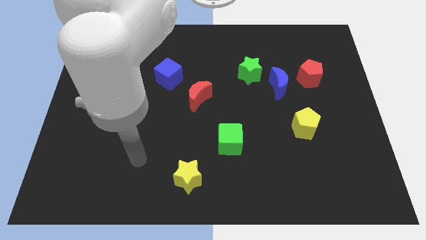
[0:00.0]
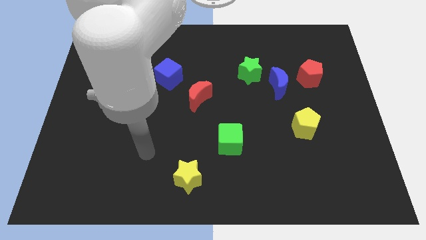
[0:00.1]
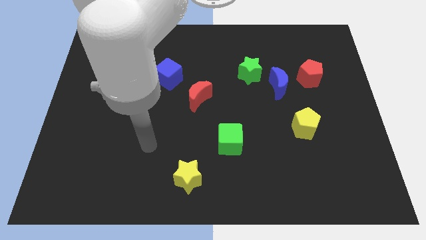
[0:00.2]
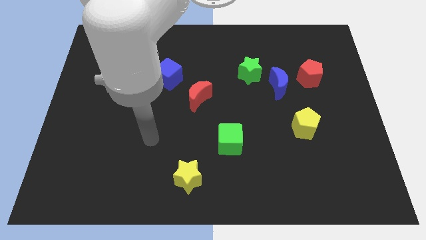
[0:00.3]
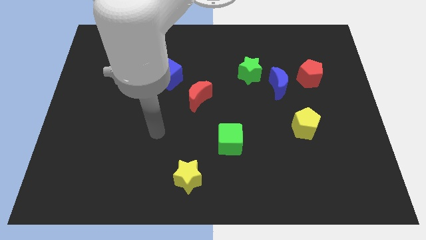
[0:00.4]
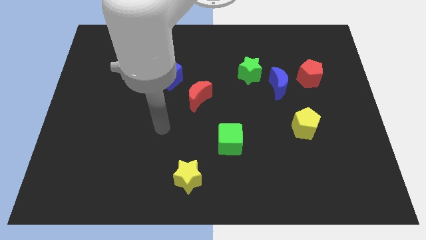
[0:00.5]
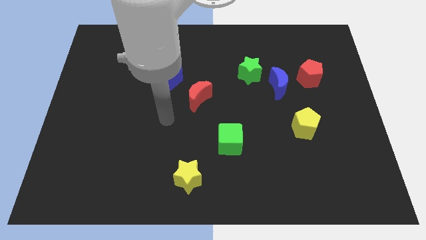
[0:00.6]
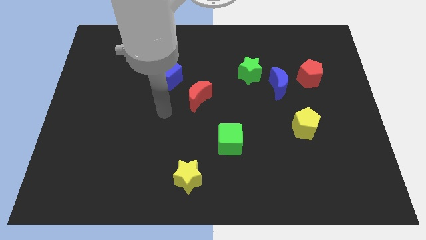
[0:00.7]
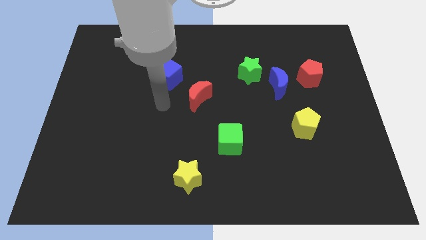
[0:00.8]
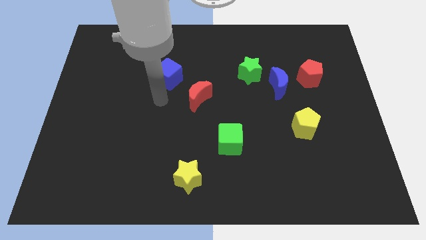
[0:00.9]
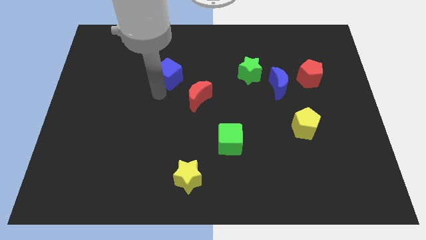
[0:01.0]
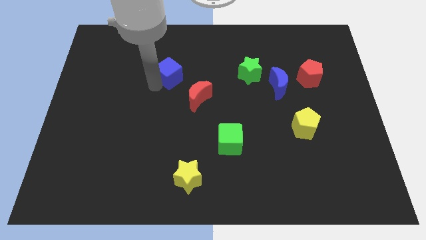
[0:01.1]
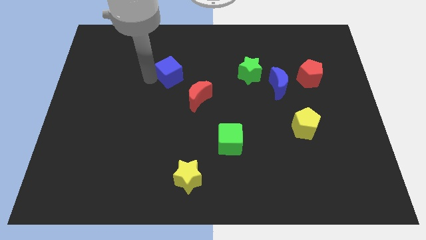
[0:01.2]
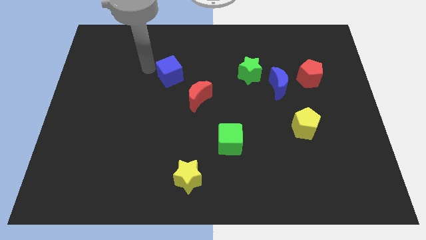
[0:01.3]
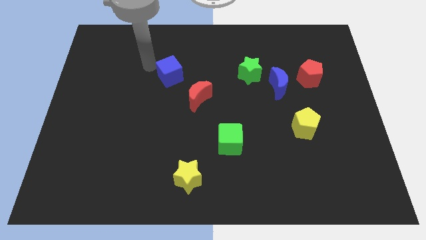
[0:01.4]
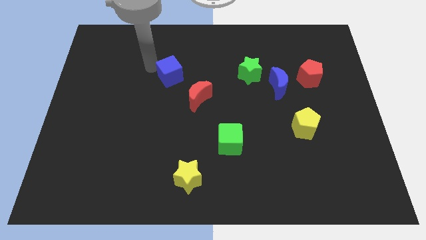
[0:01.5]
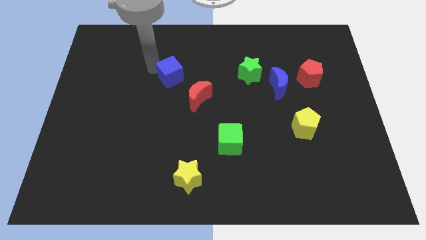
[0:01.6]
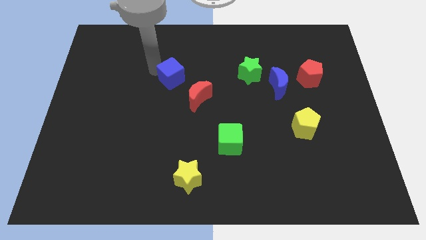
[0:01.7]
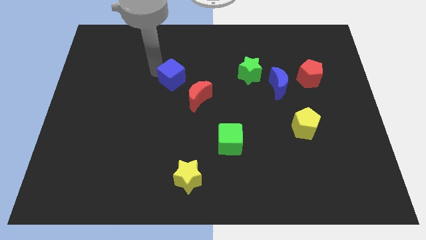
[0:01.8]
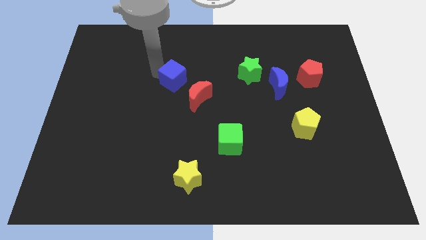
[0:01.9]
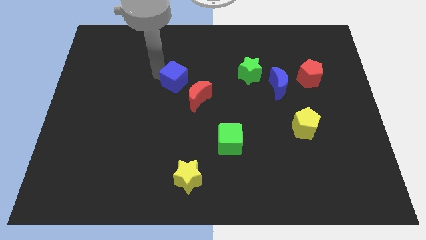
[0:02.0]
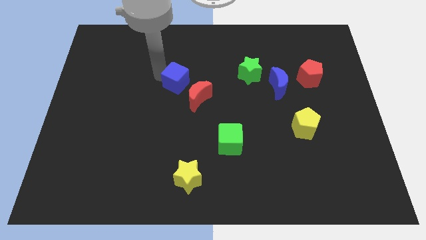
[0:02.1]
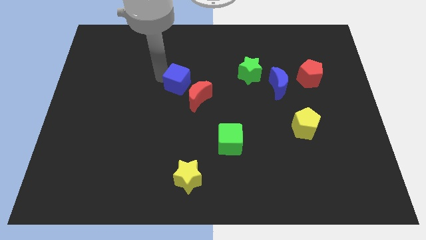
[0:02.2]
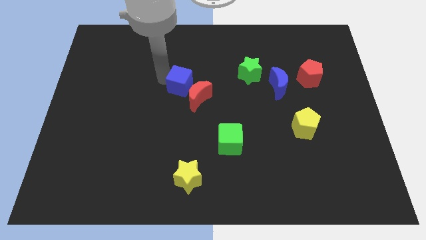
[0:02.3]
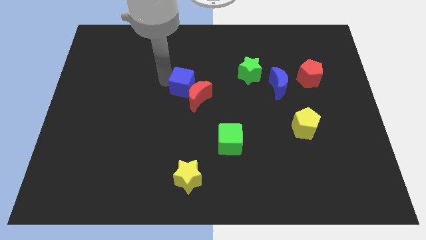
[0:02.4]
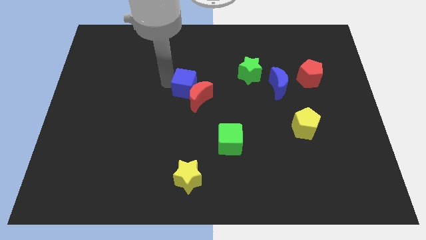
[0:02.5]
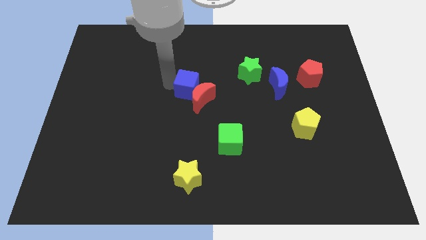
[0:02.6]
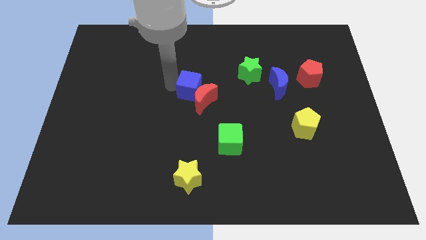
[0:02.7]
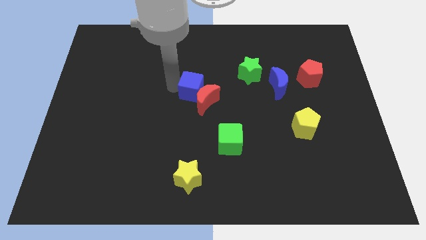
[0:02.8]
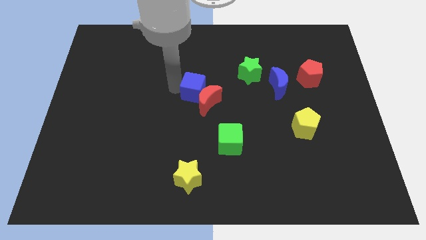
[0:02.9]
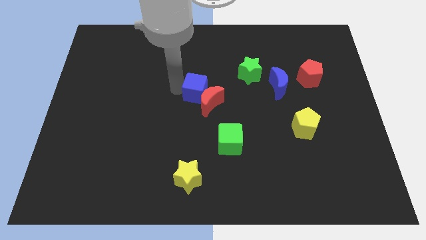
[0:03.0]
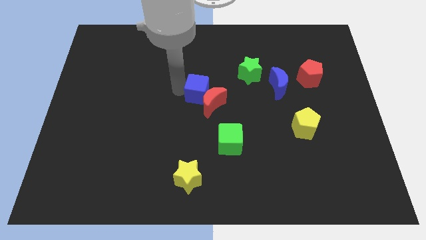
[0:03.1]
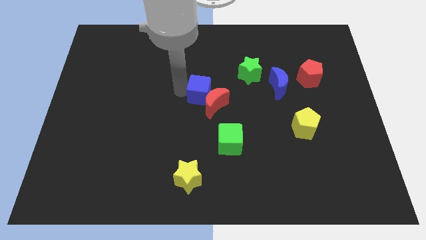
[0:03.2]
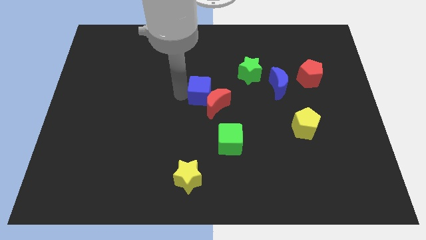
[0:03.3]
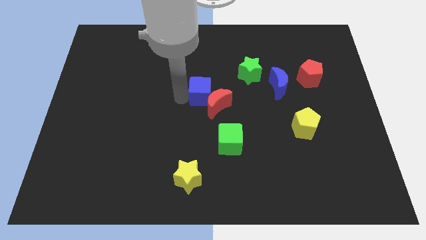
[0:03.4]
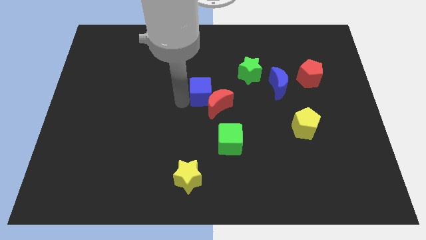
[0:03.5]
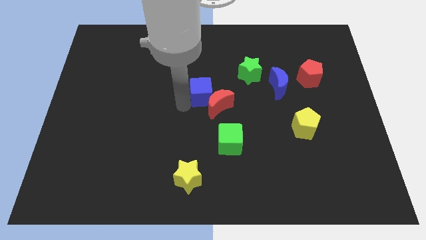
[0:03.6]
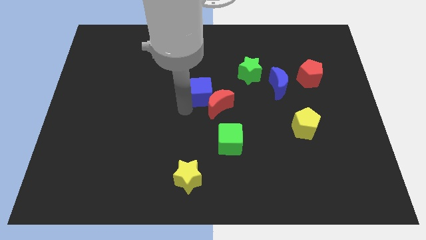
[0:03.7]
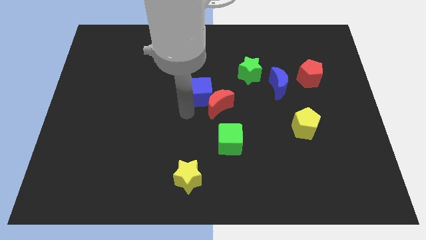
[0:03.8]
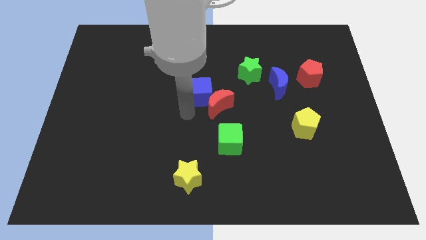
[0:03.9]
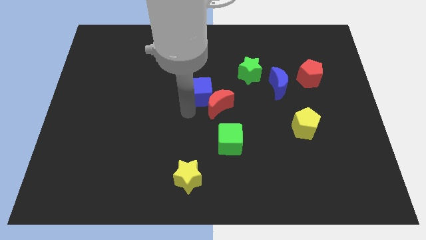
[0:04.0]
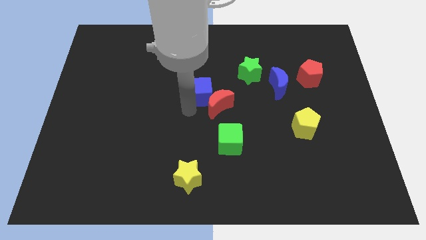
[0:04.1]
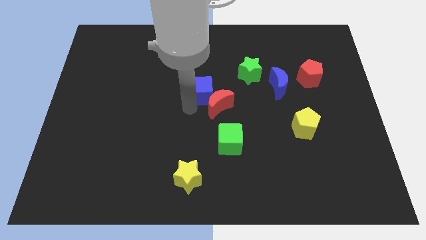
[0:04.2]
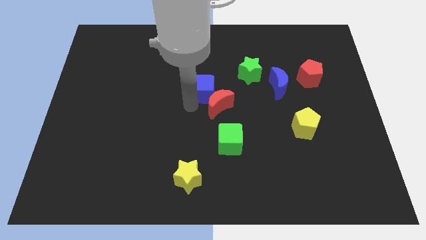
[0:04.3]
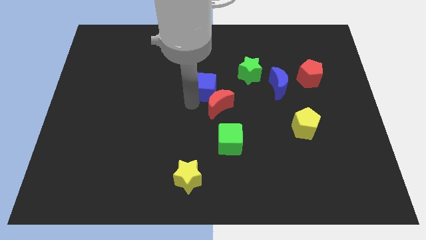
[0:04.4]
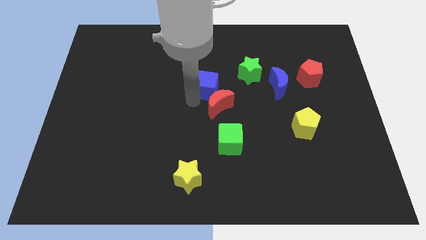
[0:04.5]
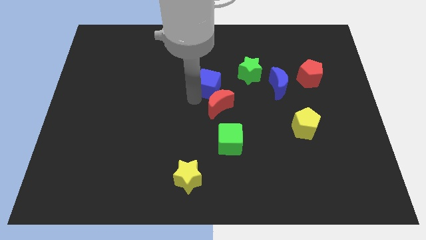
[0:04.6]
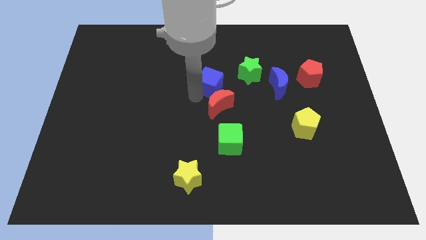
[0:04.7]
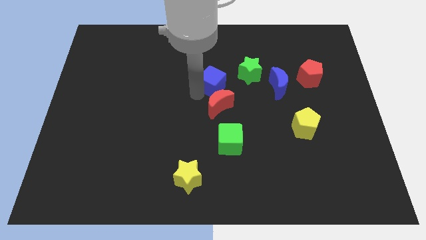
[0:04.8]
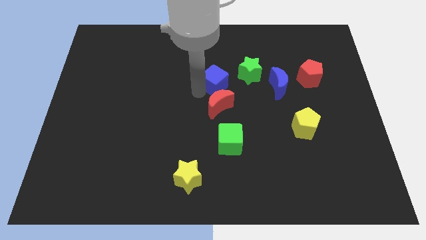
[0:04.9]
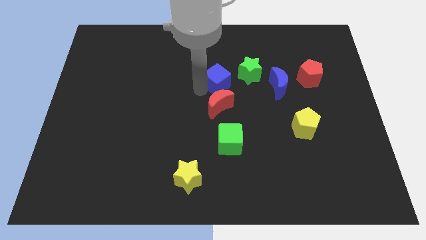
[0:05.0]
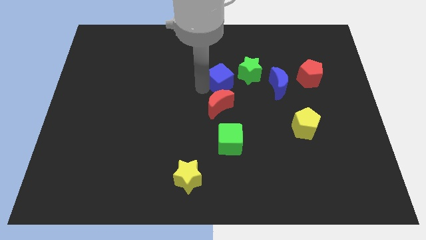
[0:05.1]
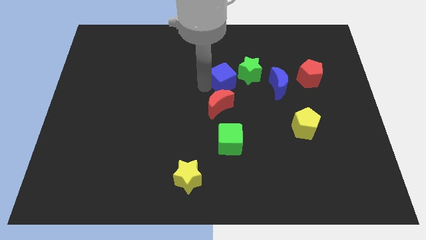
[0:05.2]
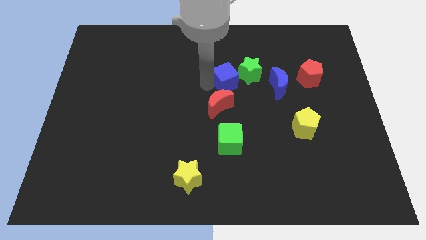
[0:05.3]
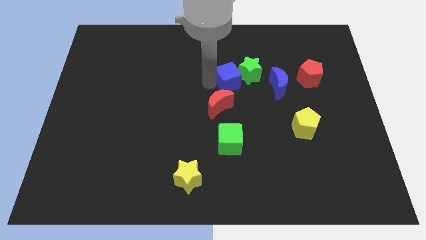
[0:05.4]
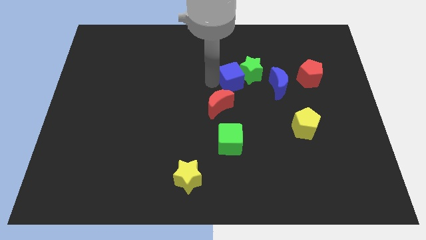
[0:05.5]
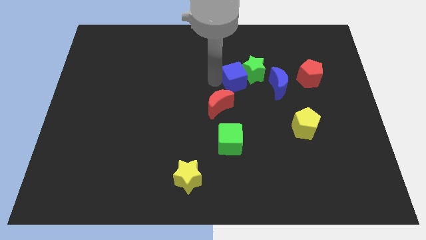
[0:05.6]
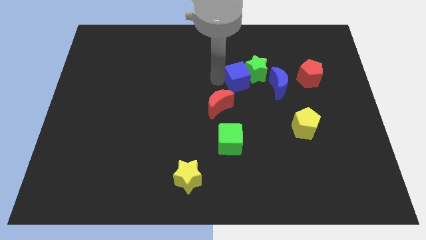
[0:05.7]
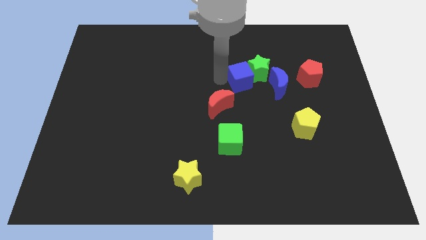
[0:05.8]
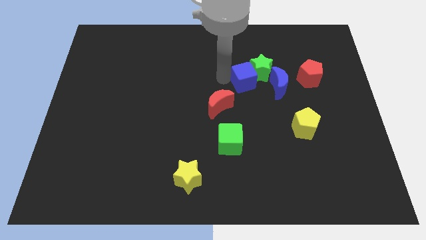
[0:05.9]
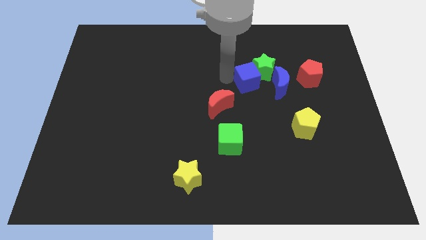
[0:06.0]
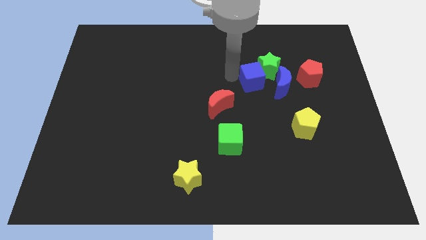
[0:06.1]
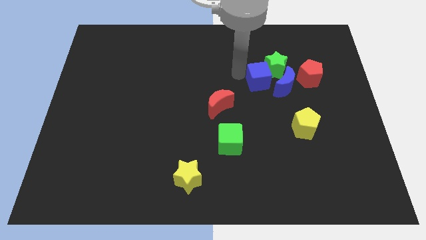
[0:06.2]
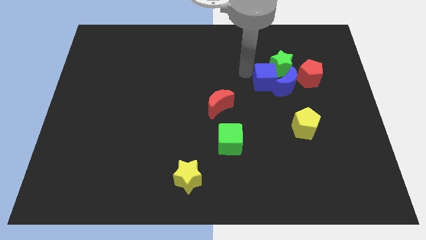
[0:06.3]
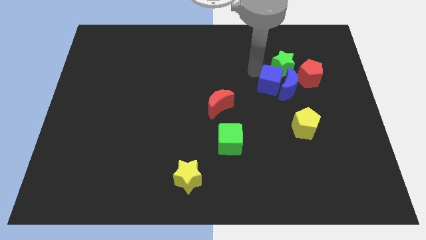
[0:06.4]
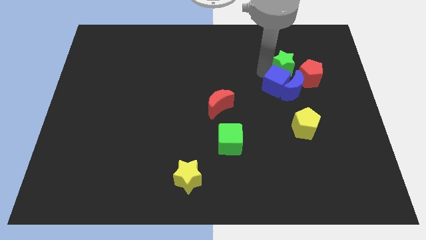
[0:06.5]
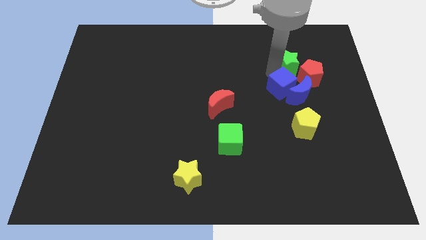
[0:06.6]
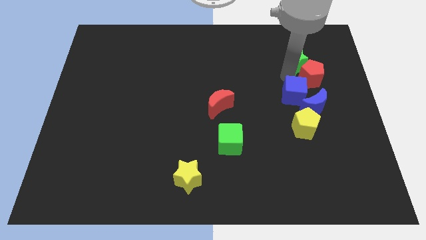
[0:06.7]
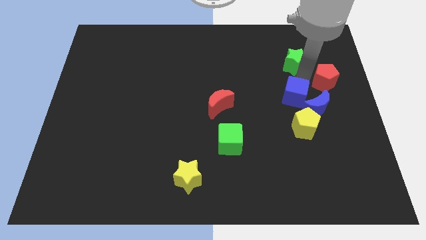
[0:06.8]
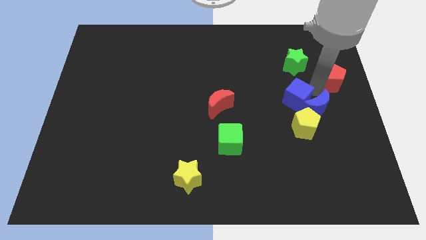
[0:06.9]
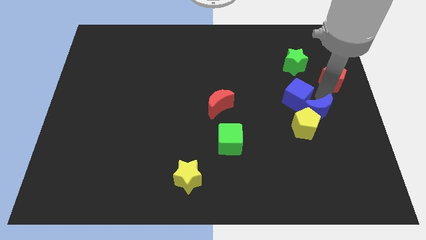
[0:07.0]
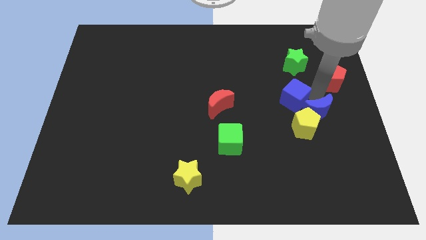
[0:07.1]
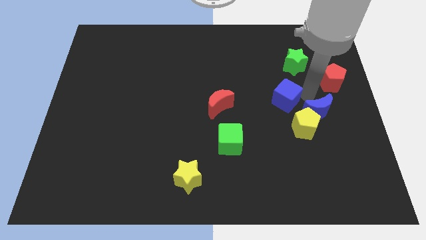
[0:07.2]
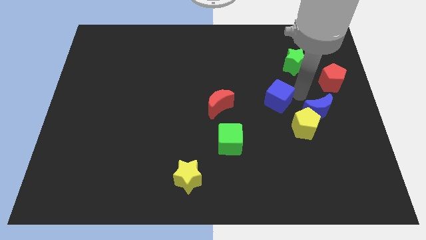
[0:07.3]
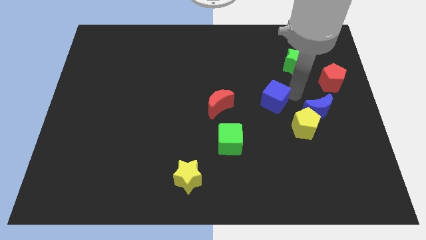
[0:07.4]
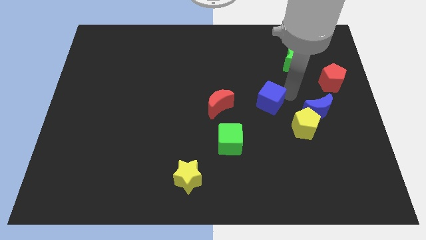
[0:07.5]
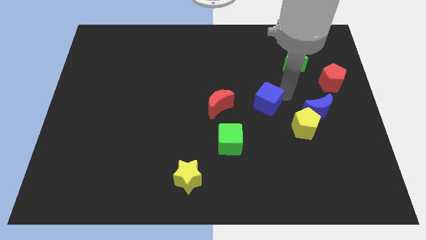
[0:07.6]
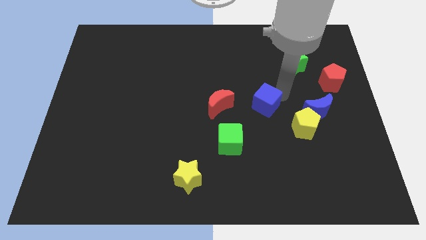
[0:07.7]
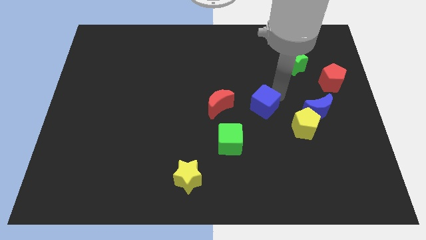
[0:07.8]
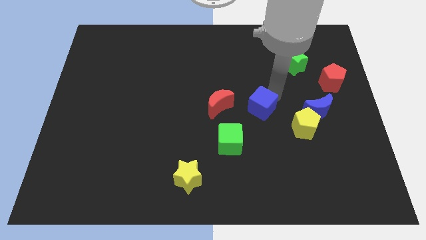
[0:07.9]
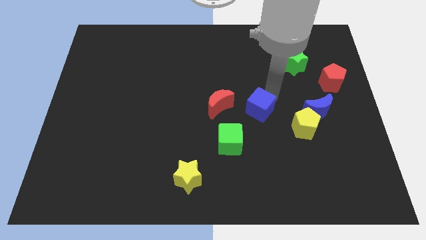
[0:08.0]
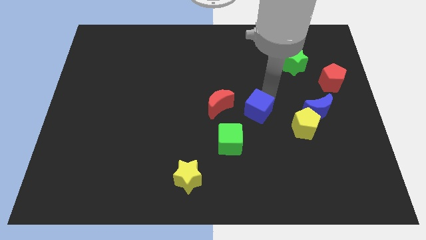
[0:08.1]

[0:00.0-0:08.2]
slide the blue cube diagonally downwards and to the right

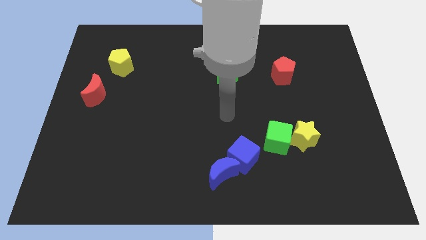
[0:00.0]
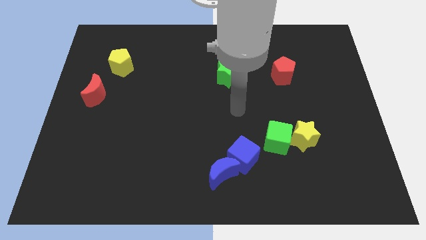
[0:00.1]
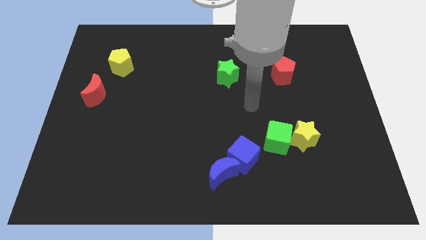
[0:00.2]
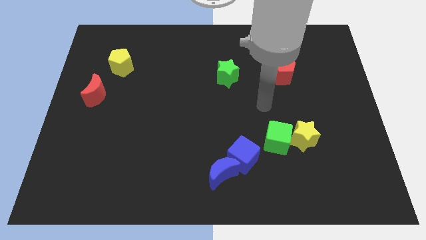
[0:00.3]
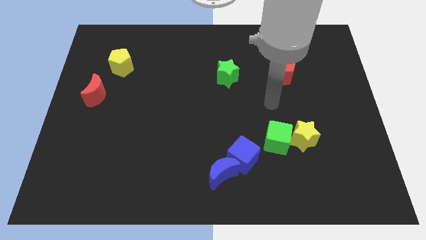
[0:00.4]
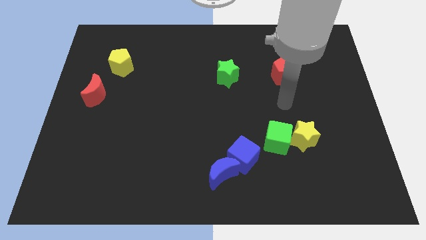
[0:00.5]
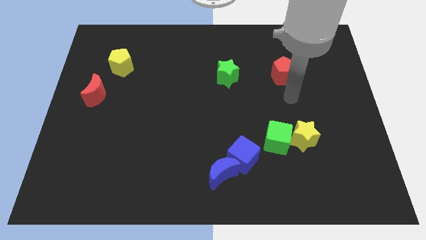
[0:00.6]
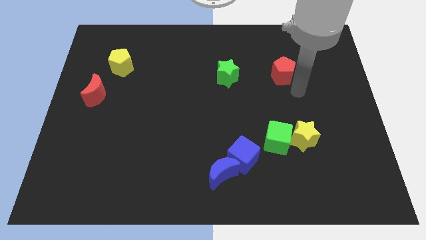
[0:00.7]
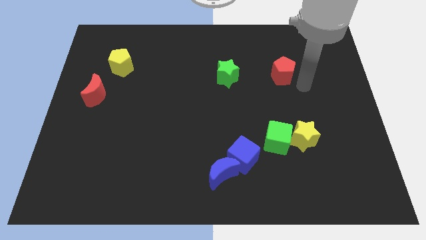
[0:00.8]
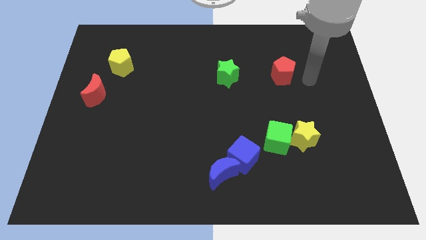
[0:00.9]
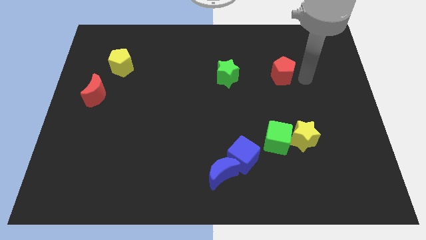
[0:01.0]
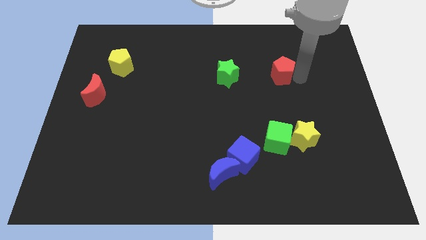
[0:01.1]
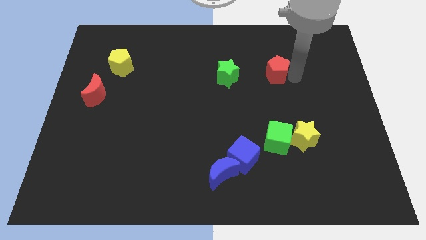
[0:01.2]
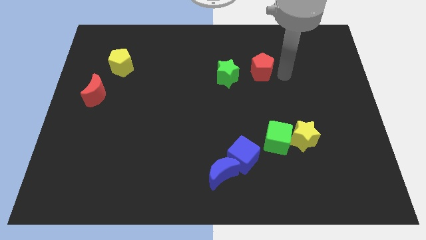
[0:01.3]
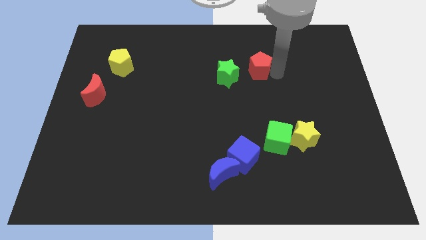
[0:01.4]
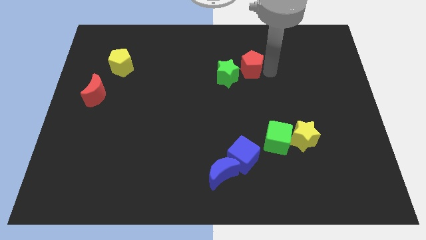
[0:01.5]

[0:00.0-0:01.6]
move the red pentagon left slightly
